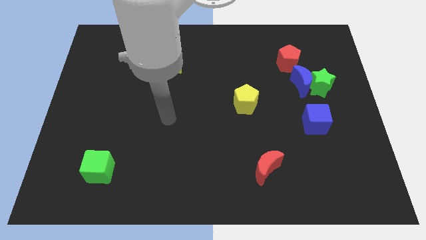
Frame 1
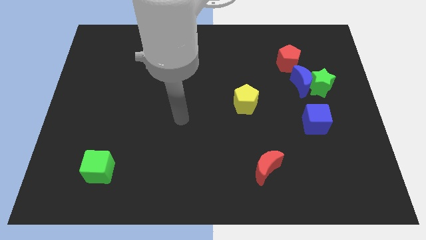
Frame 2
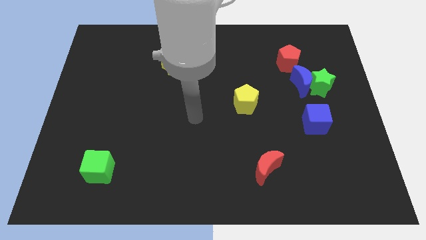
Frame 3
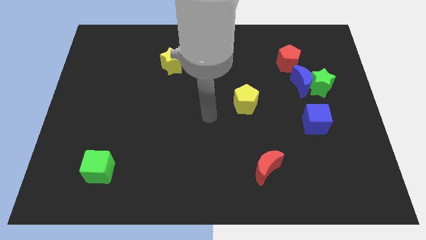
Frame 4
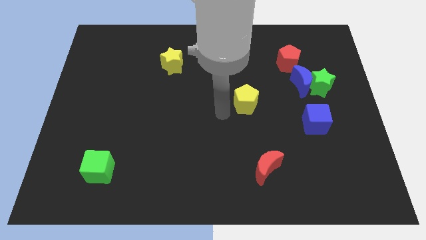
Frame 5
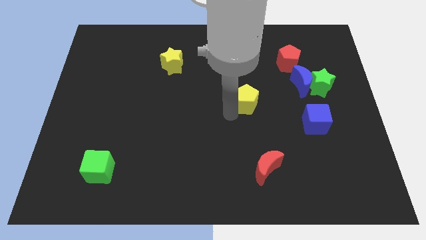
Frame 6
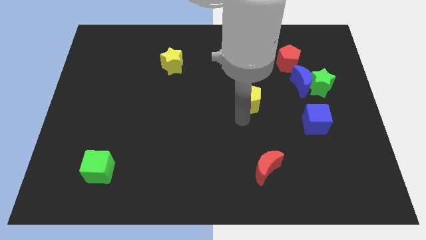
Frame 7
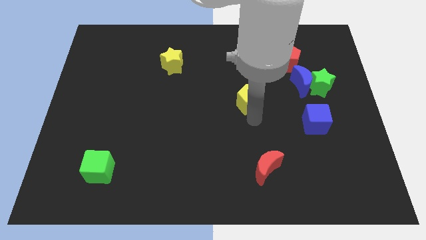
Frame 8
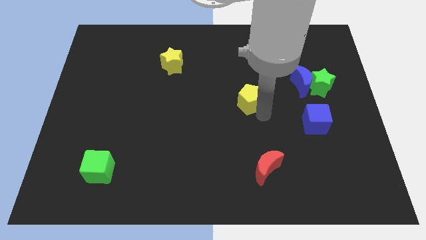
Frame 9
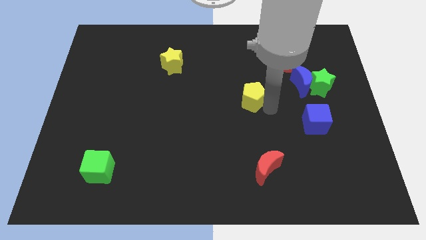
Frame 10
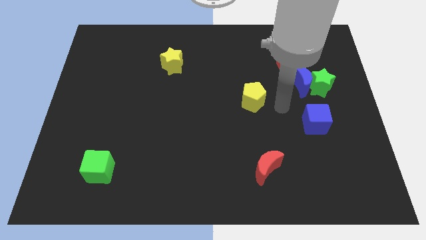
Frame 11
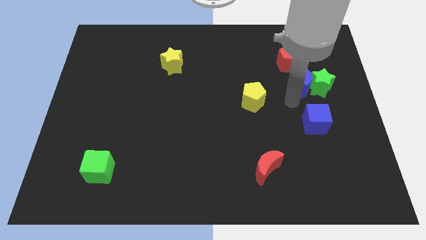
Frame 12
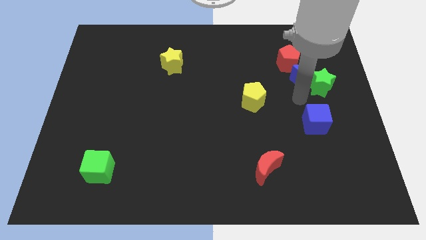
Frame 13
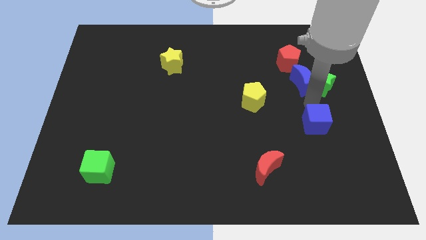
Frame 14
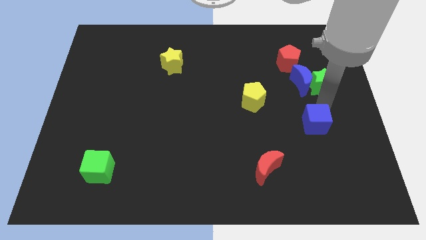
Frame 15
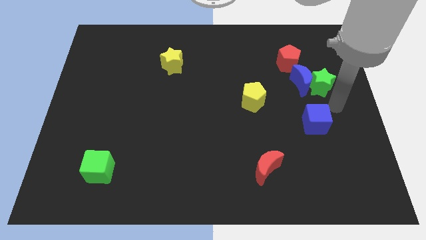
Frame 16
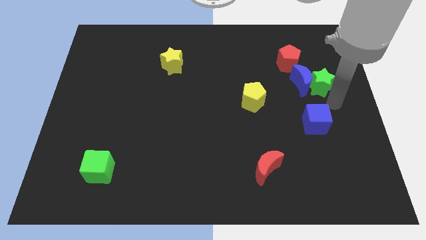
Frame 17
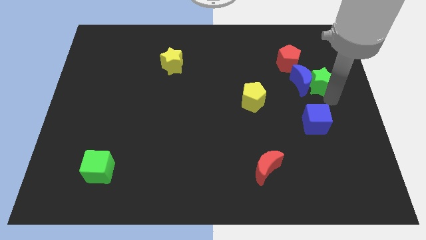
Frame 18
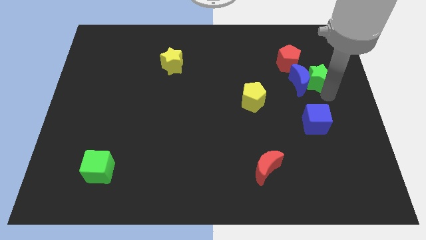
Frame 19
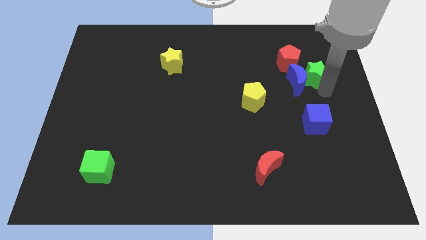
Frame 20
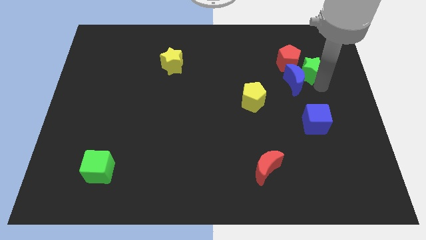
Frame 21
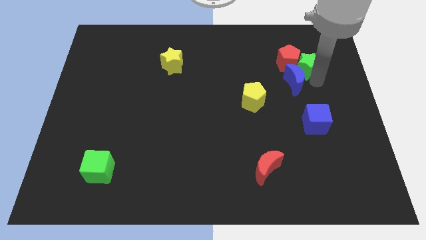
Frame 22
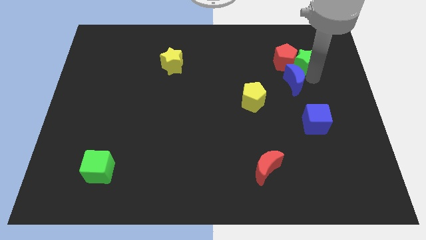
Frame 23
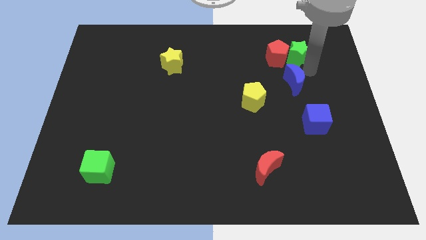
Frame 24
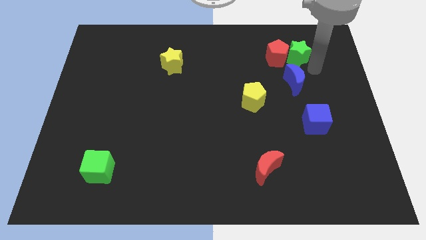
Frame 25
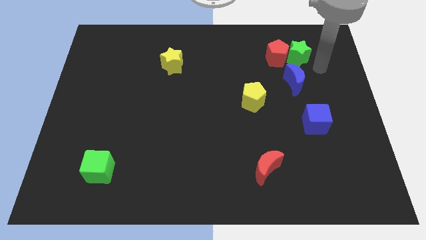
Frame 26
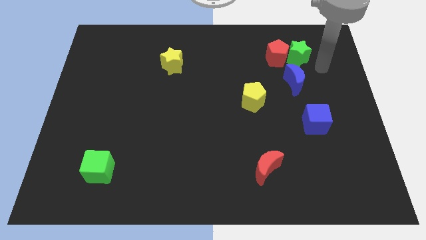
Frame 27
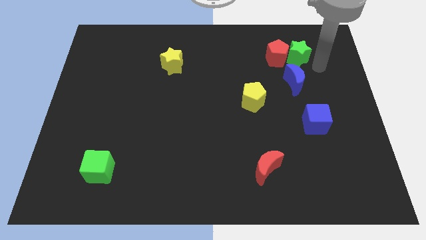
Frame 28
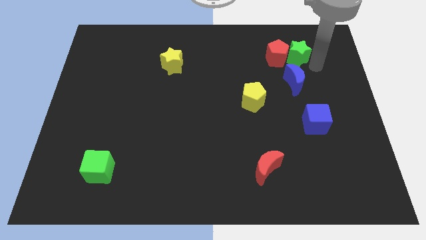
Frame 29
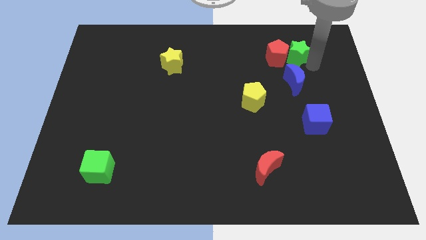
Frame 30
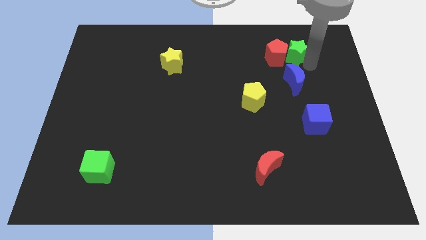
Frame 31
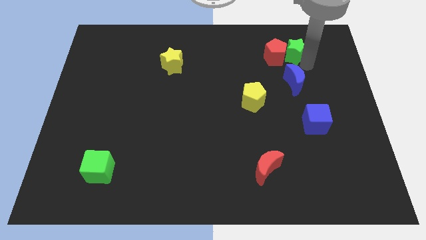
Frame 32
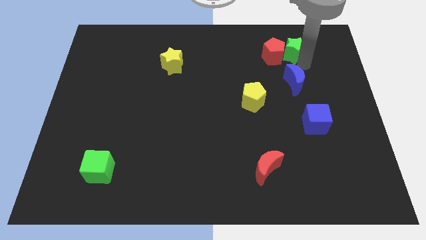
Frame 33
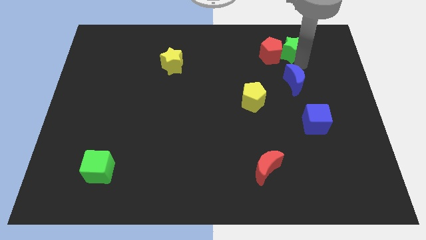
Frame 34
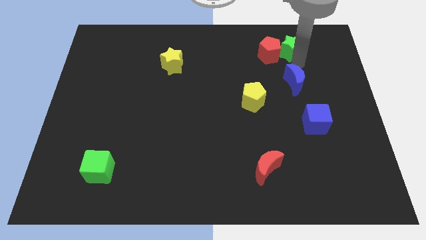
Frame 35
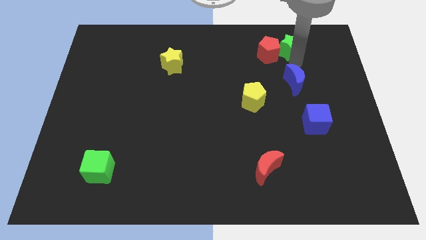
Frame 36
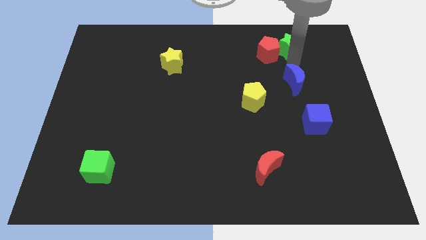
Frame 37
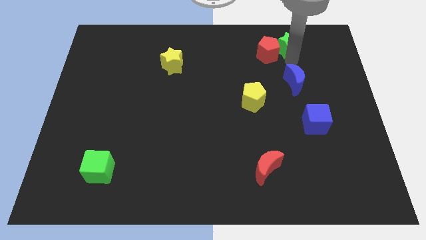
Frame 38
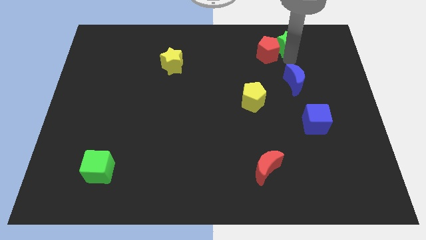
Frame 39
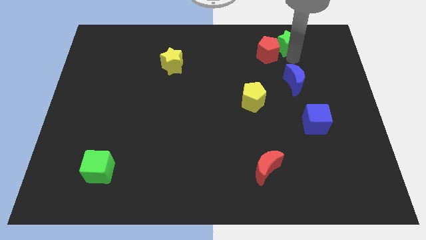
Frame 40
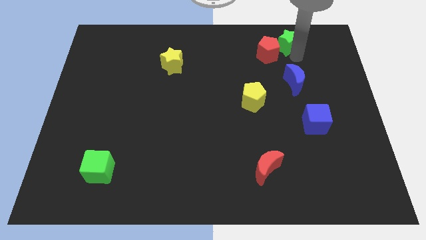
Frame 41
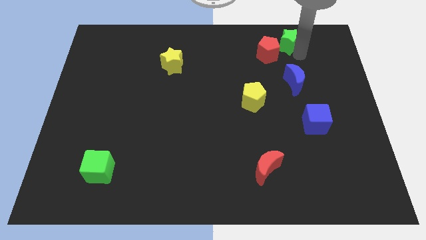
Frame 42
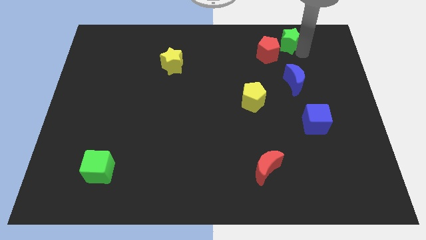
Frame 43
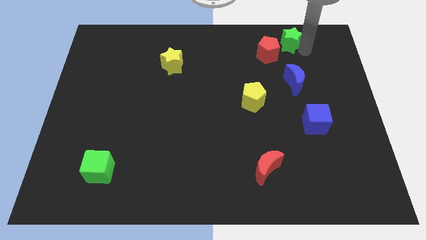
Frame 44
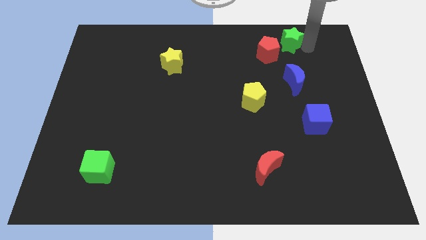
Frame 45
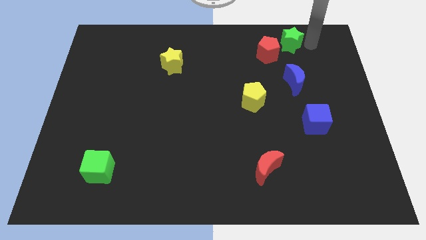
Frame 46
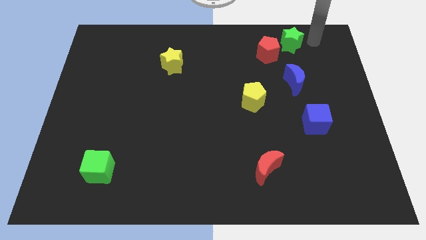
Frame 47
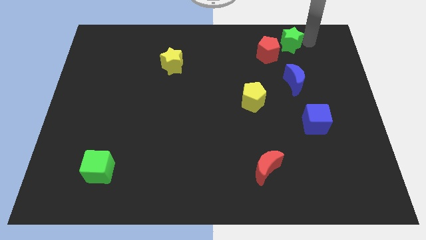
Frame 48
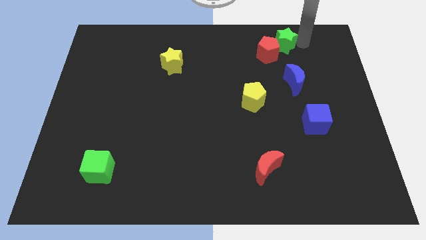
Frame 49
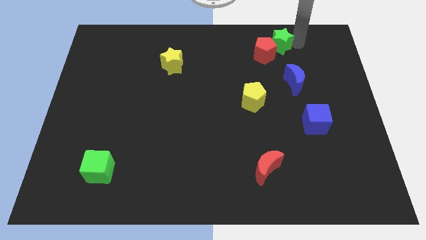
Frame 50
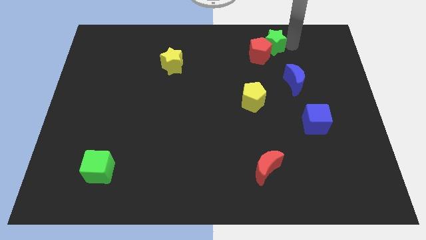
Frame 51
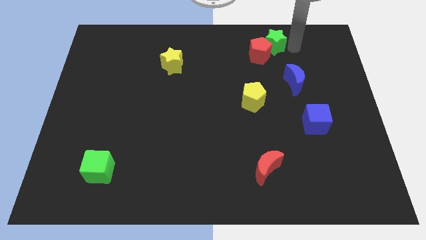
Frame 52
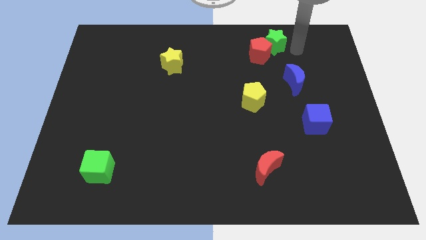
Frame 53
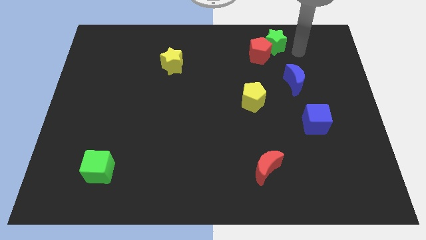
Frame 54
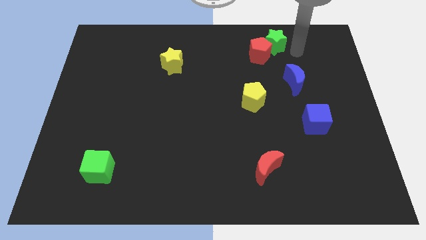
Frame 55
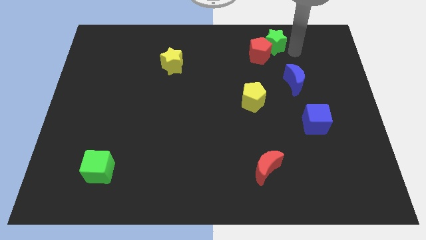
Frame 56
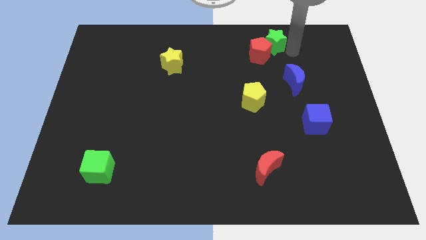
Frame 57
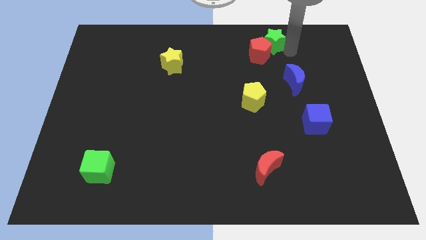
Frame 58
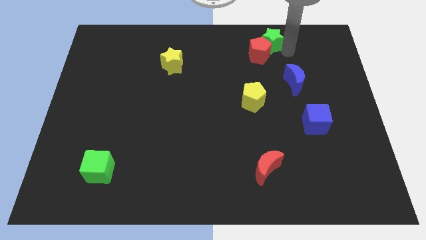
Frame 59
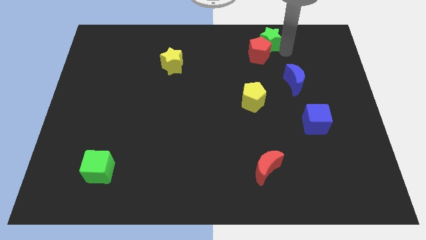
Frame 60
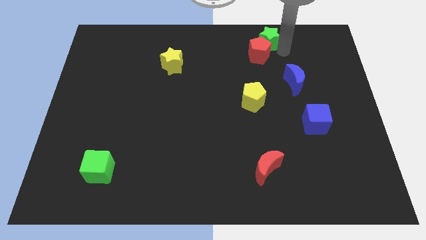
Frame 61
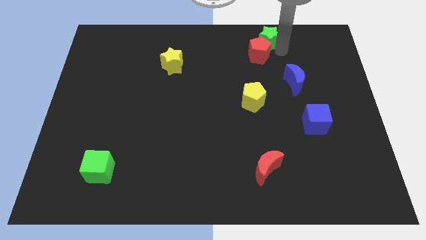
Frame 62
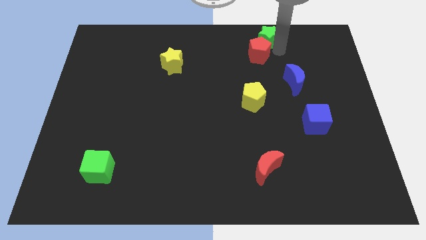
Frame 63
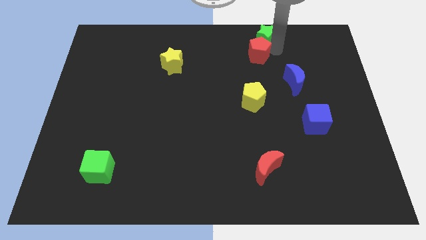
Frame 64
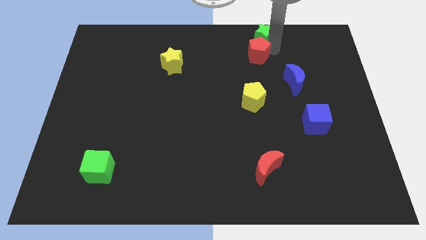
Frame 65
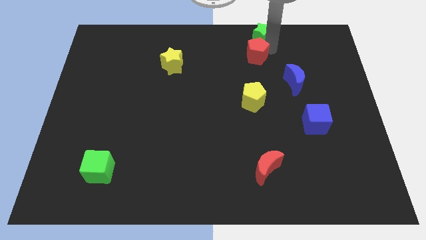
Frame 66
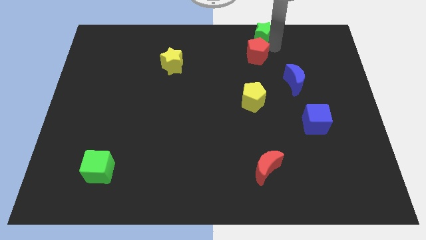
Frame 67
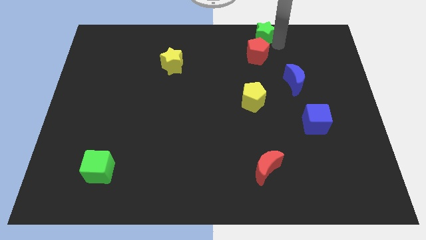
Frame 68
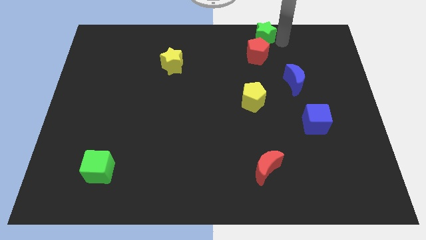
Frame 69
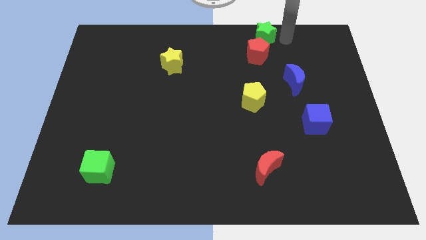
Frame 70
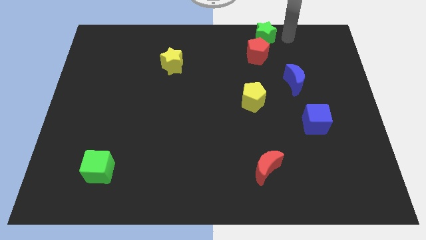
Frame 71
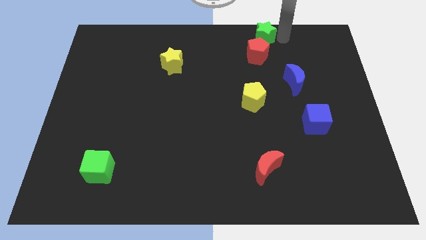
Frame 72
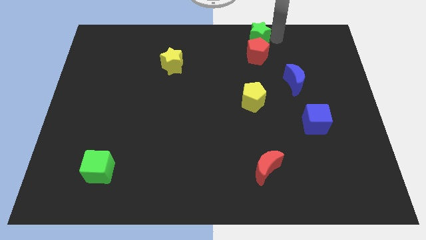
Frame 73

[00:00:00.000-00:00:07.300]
slide the green star to the top

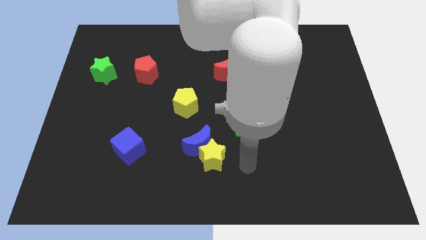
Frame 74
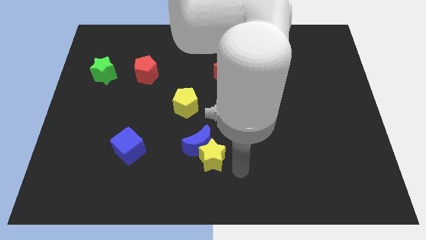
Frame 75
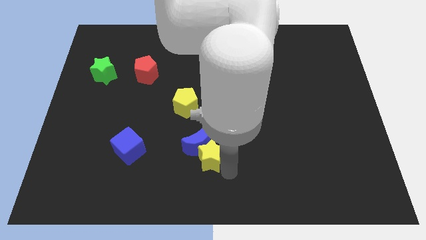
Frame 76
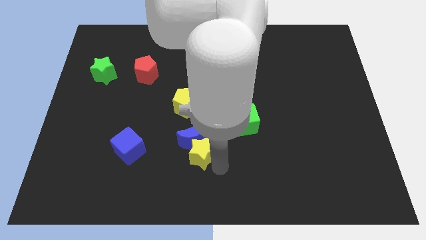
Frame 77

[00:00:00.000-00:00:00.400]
slide the blue moon to the center of the board
